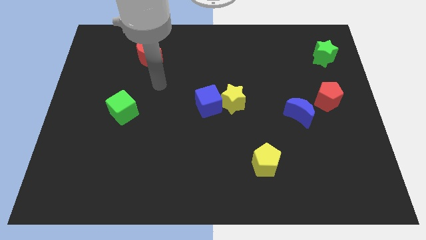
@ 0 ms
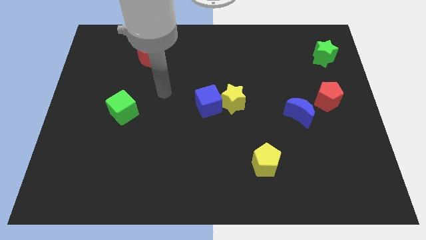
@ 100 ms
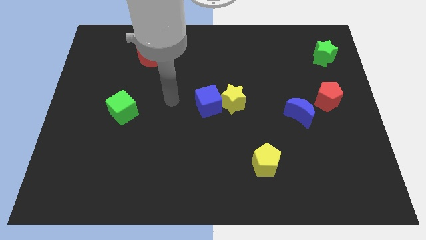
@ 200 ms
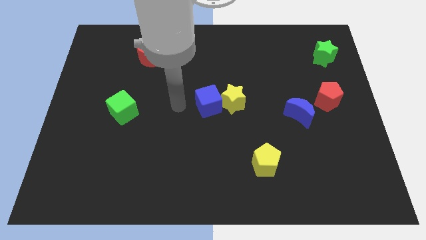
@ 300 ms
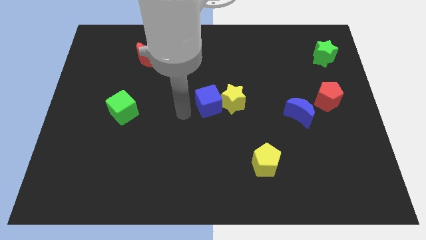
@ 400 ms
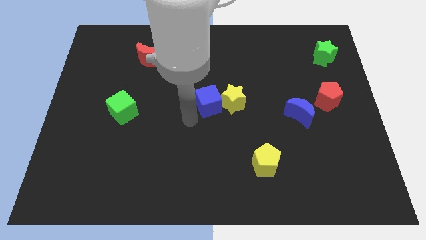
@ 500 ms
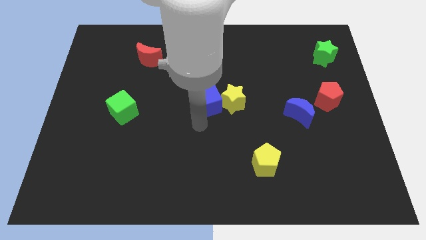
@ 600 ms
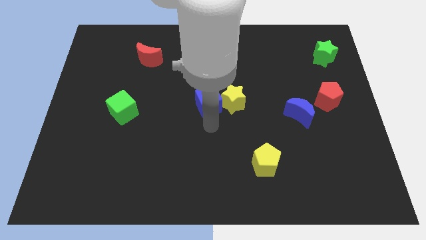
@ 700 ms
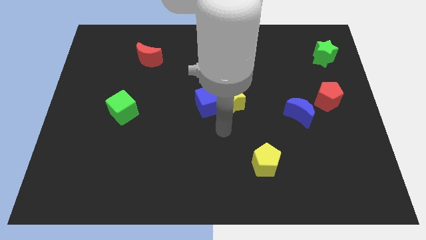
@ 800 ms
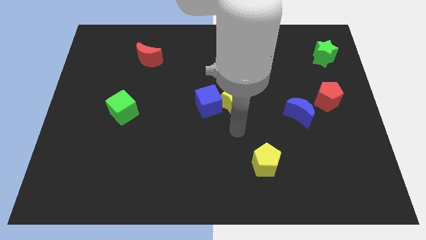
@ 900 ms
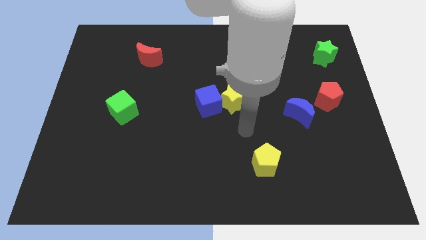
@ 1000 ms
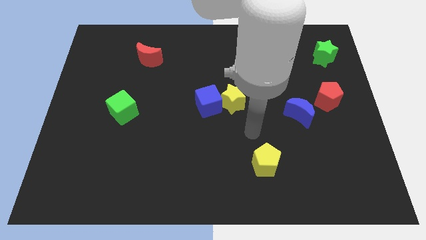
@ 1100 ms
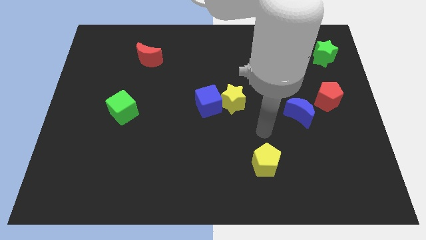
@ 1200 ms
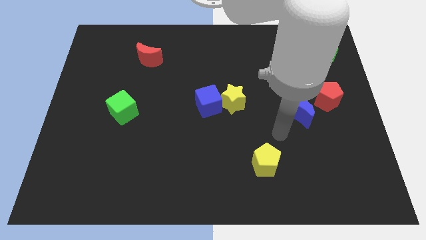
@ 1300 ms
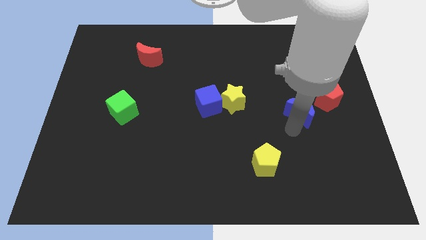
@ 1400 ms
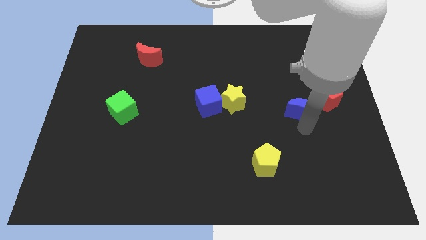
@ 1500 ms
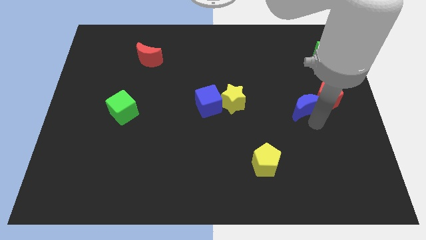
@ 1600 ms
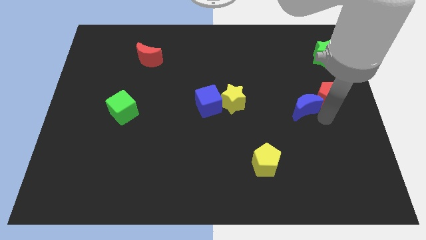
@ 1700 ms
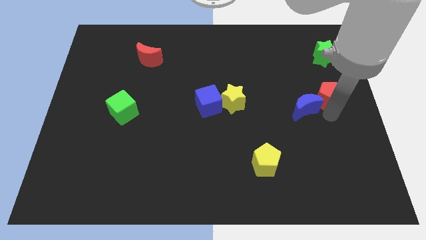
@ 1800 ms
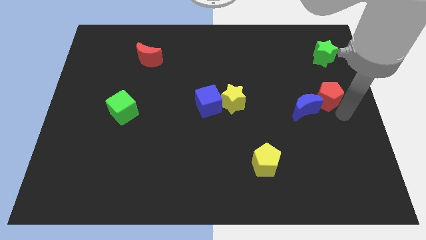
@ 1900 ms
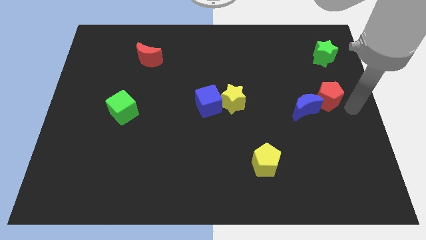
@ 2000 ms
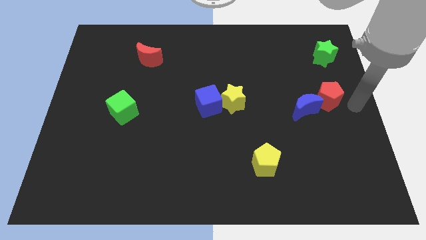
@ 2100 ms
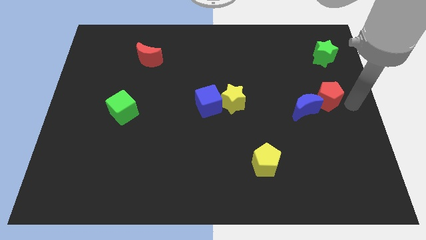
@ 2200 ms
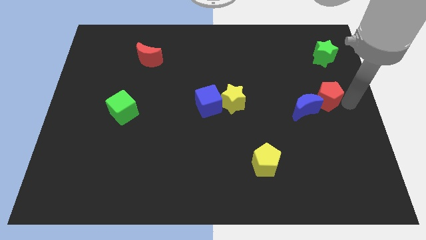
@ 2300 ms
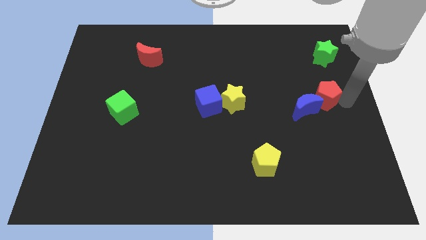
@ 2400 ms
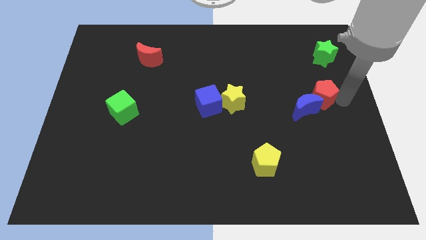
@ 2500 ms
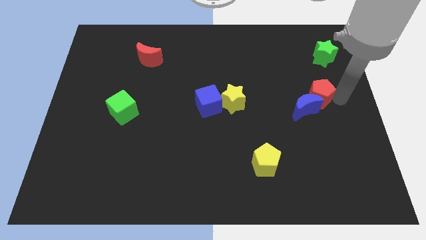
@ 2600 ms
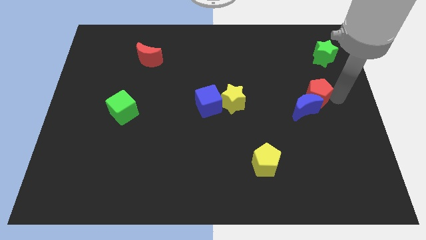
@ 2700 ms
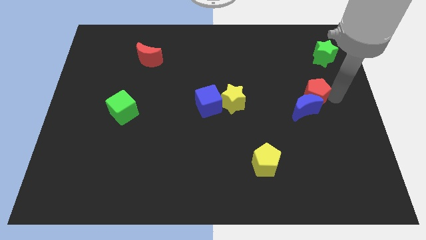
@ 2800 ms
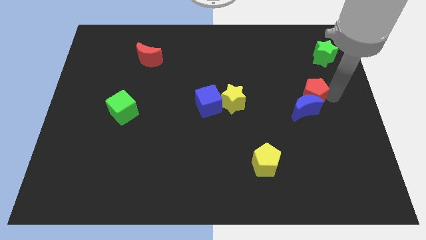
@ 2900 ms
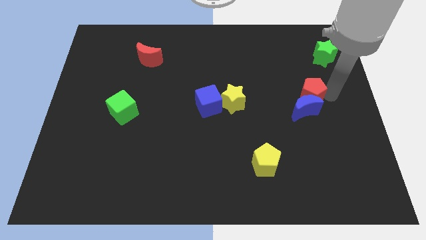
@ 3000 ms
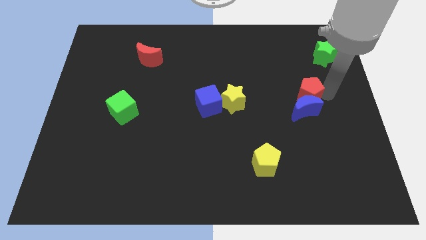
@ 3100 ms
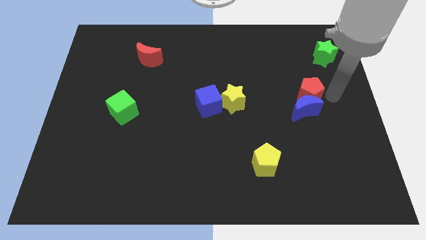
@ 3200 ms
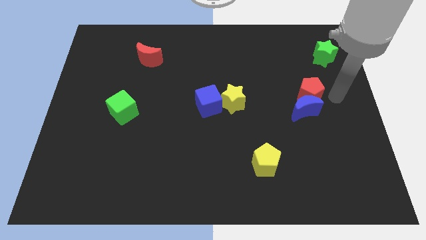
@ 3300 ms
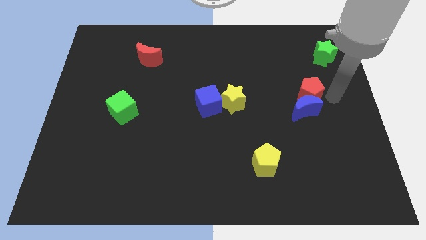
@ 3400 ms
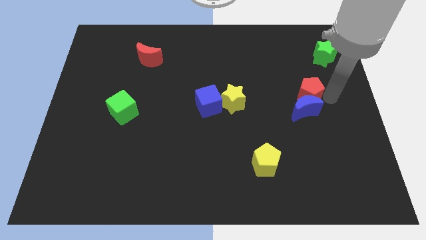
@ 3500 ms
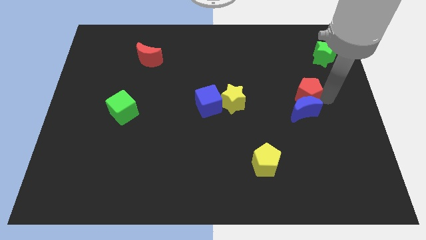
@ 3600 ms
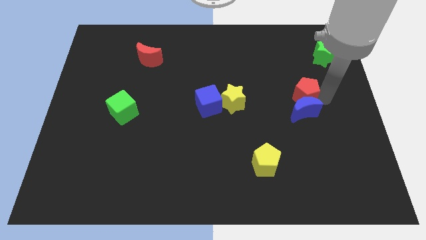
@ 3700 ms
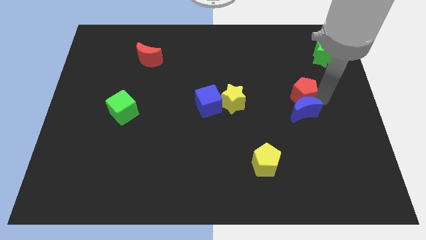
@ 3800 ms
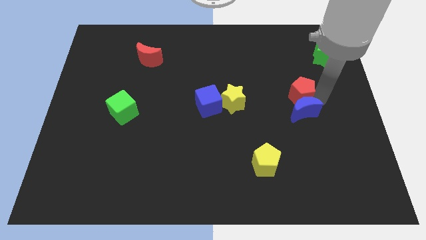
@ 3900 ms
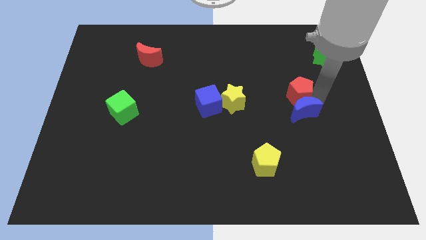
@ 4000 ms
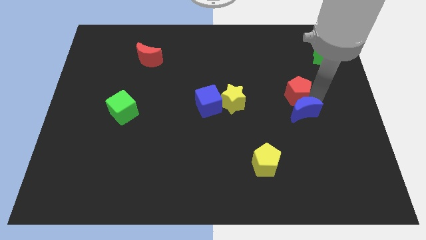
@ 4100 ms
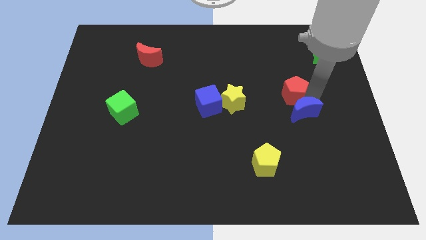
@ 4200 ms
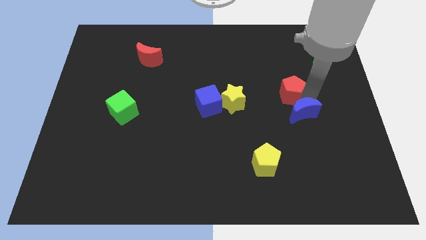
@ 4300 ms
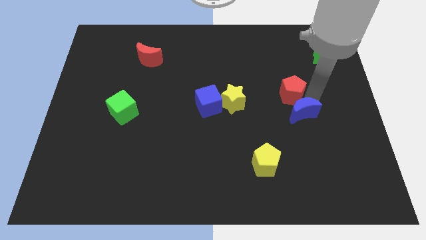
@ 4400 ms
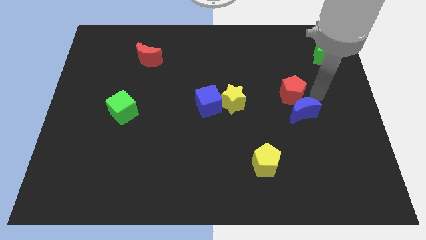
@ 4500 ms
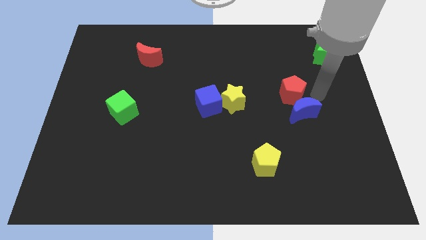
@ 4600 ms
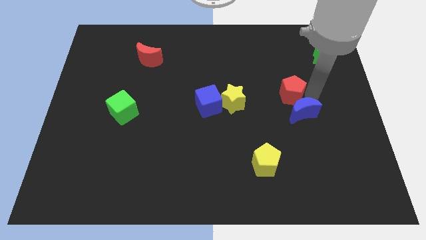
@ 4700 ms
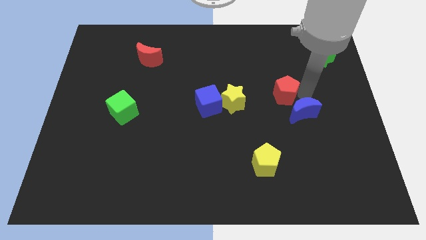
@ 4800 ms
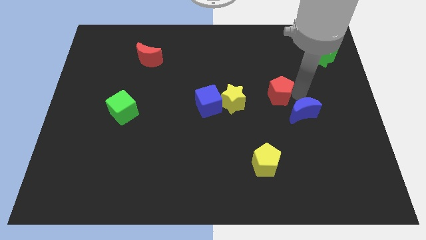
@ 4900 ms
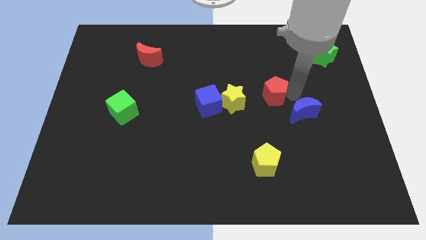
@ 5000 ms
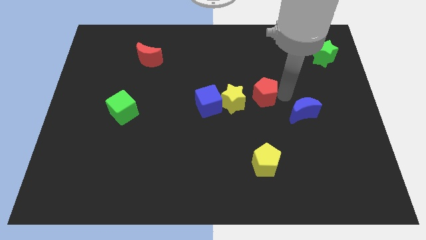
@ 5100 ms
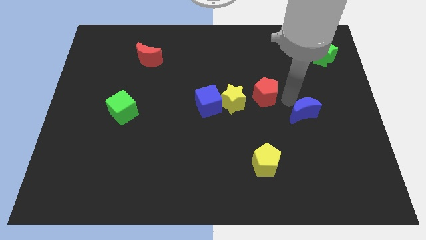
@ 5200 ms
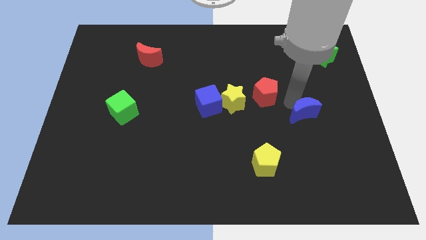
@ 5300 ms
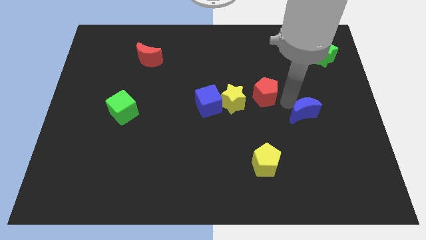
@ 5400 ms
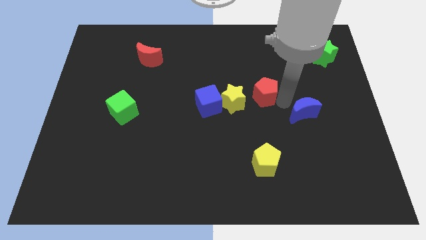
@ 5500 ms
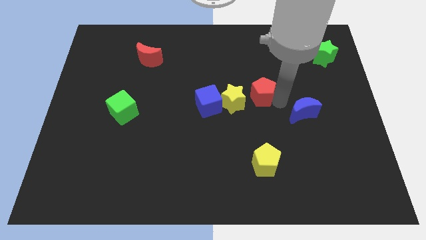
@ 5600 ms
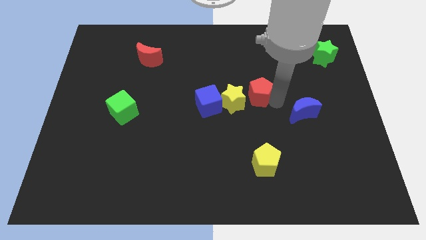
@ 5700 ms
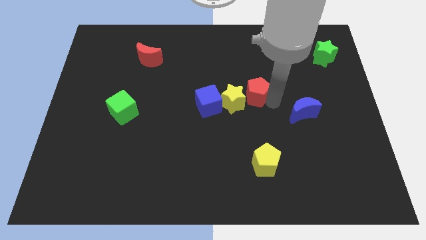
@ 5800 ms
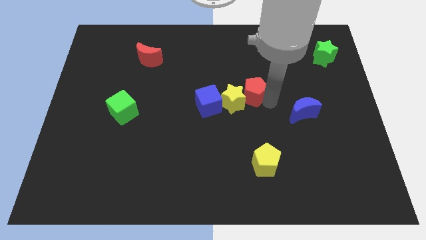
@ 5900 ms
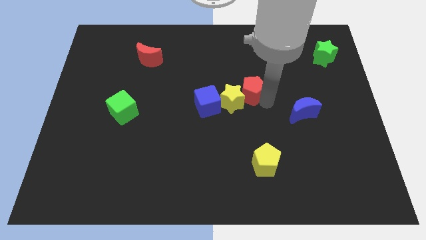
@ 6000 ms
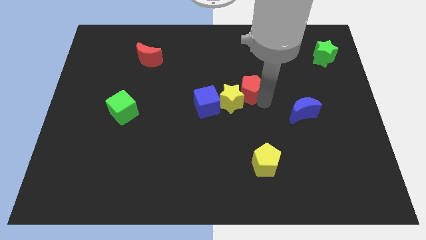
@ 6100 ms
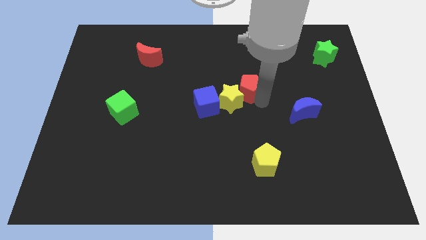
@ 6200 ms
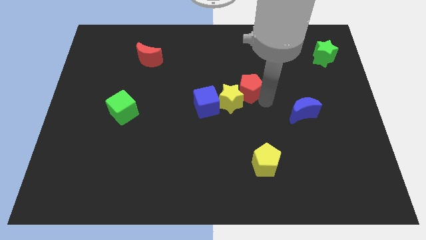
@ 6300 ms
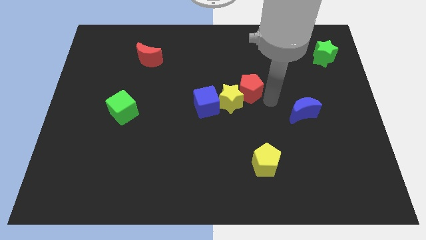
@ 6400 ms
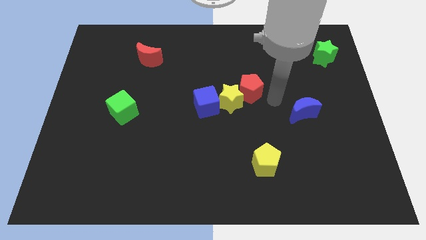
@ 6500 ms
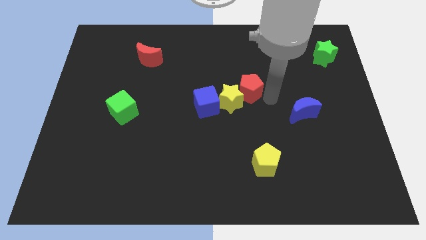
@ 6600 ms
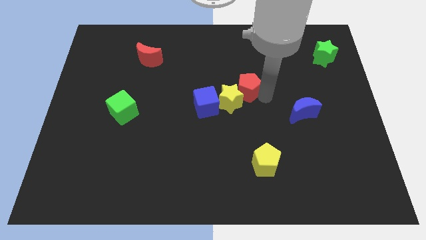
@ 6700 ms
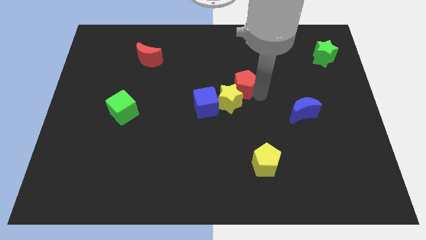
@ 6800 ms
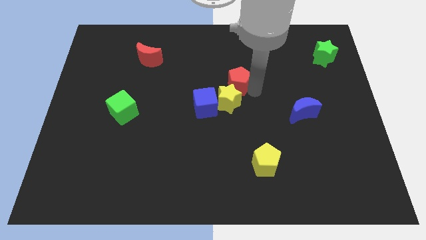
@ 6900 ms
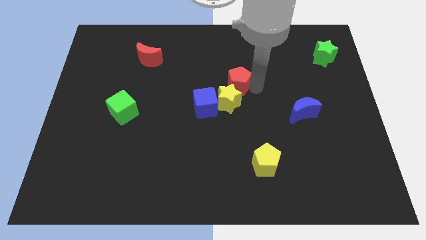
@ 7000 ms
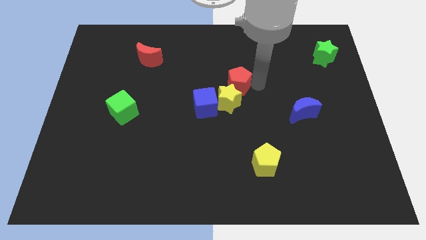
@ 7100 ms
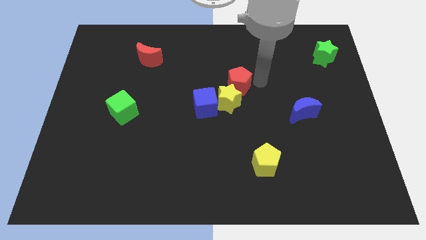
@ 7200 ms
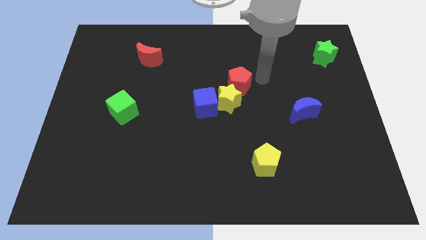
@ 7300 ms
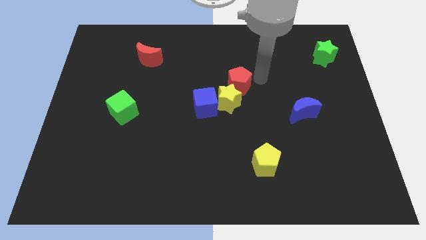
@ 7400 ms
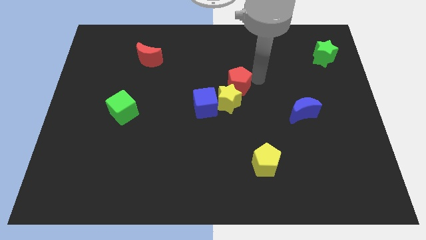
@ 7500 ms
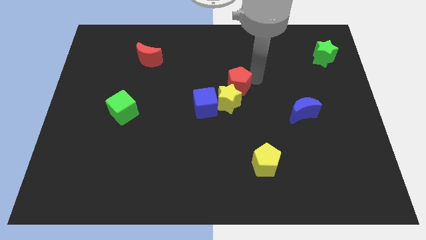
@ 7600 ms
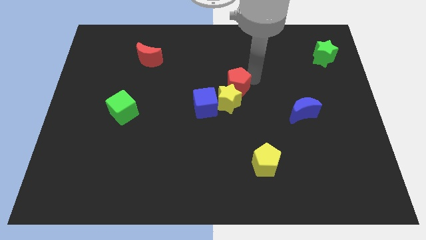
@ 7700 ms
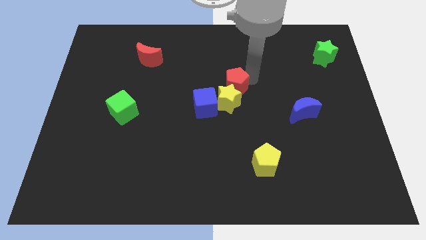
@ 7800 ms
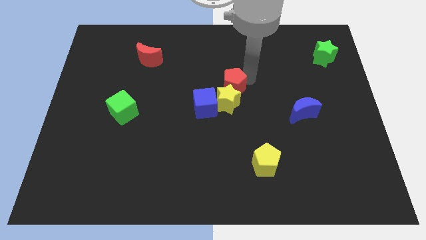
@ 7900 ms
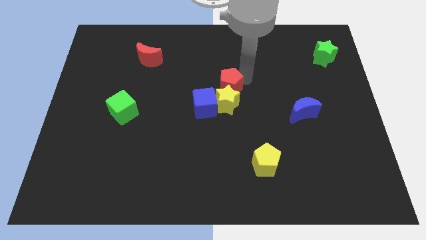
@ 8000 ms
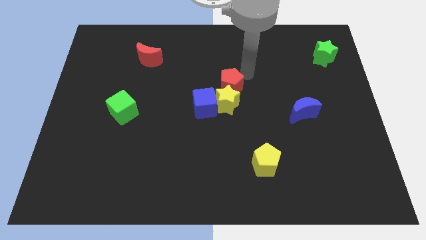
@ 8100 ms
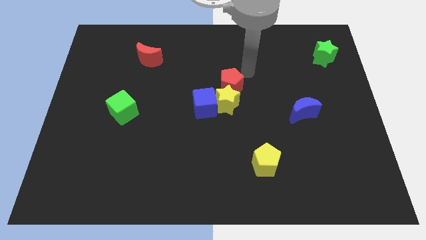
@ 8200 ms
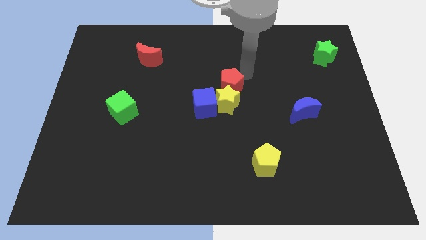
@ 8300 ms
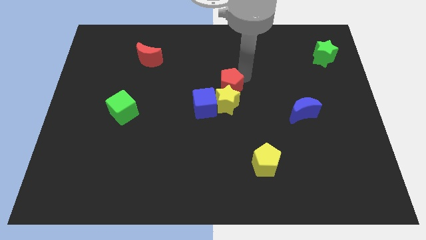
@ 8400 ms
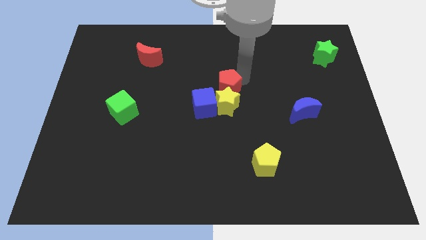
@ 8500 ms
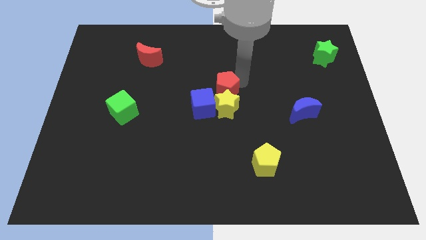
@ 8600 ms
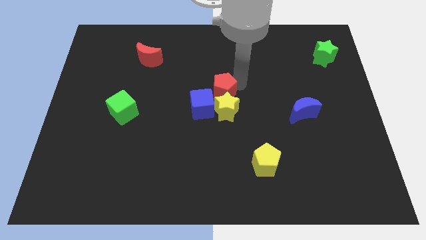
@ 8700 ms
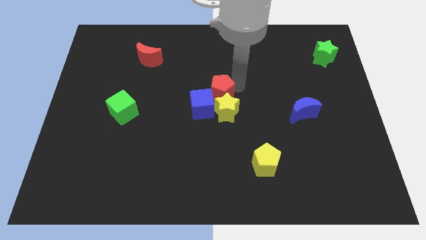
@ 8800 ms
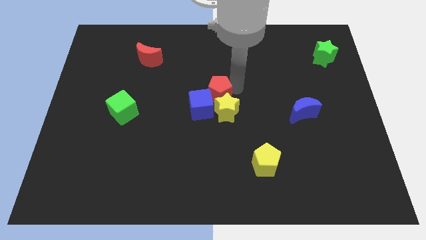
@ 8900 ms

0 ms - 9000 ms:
push the red pentagon towards the blue cube
